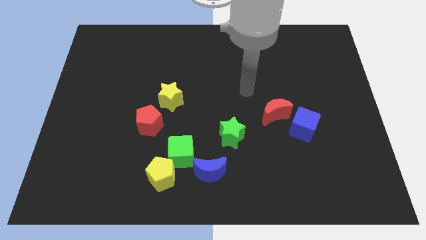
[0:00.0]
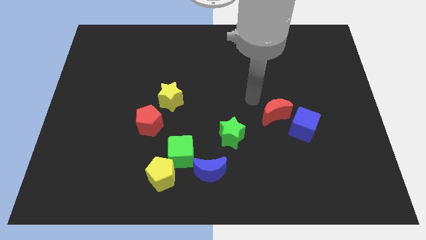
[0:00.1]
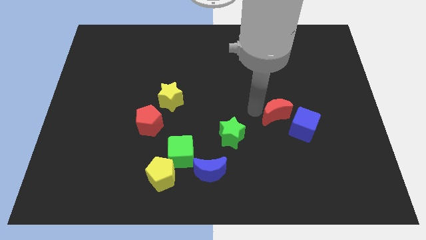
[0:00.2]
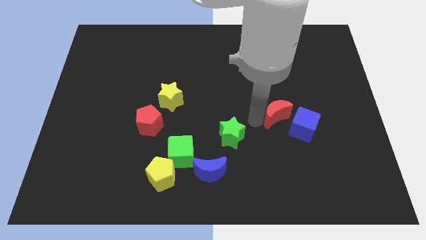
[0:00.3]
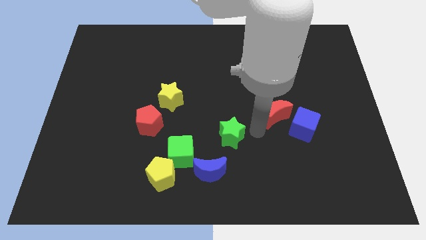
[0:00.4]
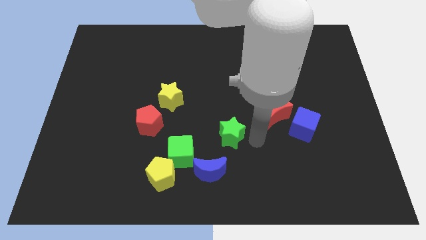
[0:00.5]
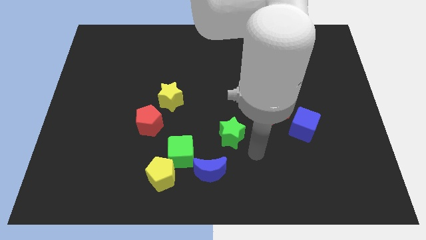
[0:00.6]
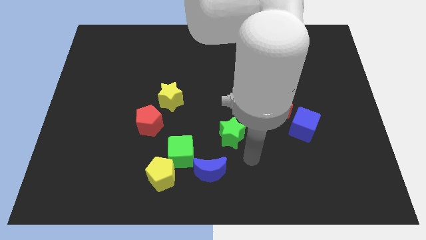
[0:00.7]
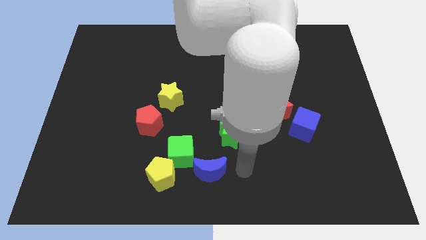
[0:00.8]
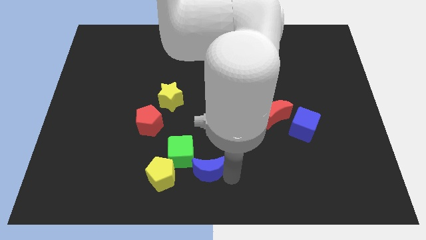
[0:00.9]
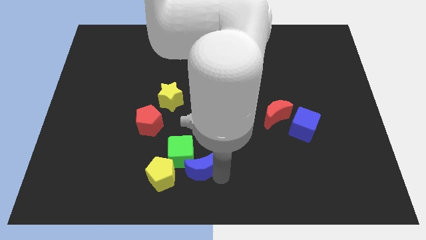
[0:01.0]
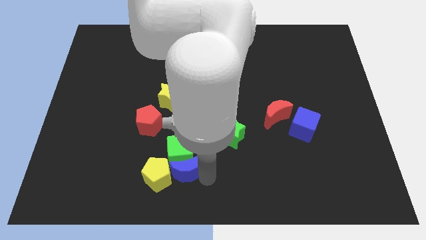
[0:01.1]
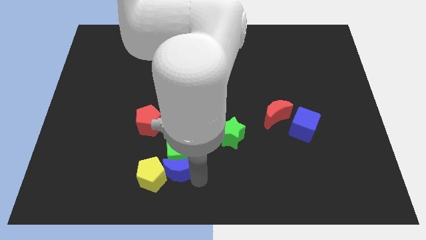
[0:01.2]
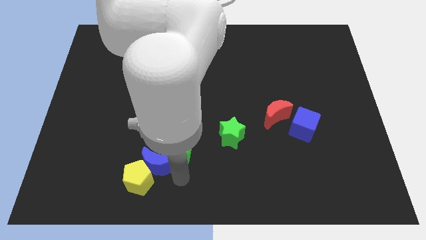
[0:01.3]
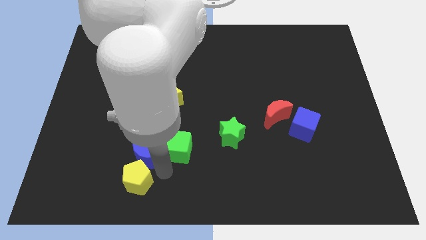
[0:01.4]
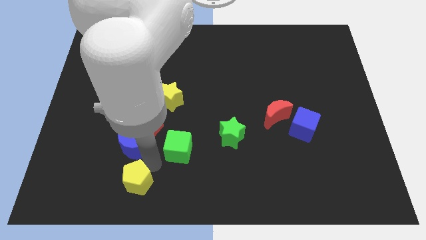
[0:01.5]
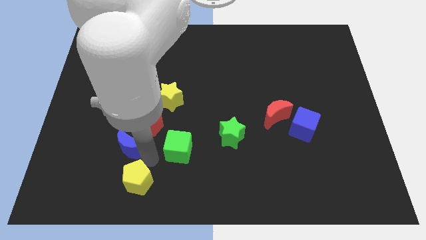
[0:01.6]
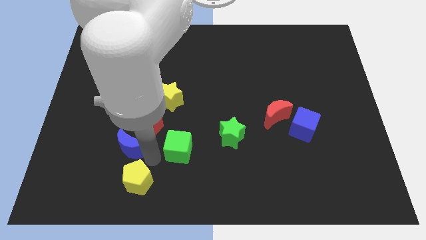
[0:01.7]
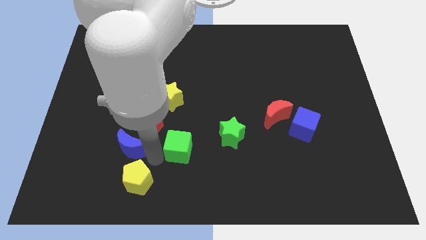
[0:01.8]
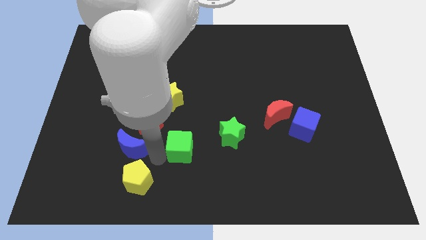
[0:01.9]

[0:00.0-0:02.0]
pull the green cube apart from the yellow pentagon and blue moon

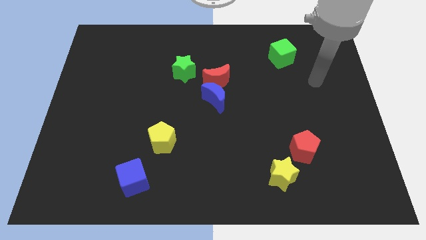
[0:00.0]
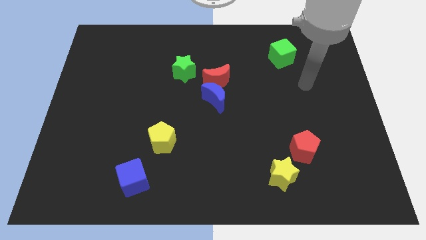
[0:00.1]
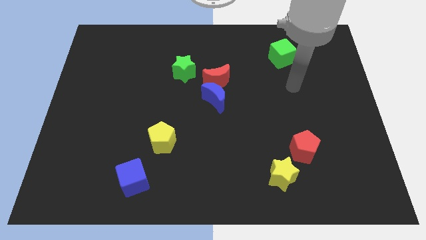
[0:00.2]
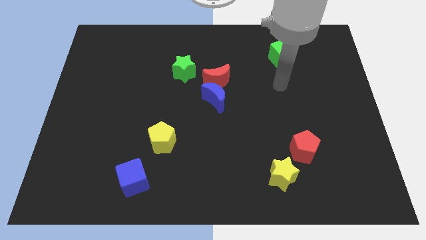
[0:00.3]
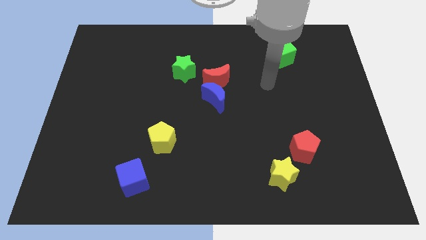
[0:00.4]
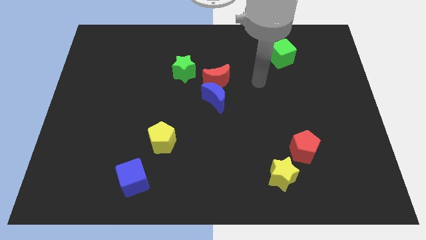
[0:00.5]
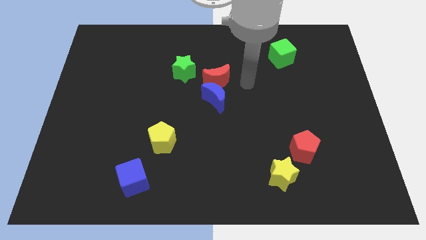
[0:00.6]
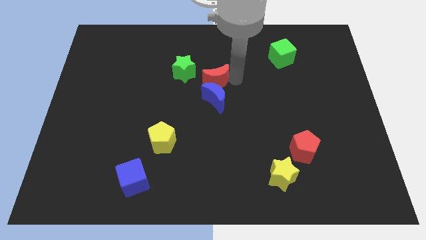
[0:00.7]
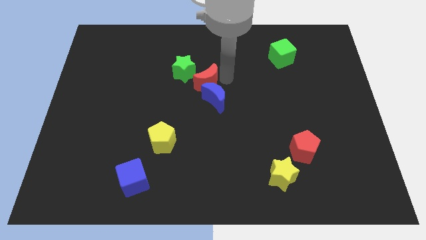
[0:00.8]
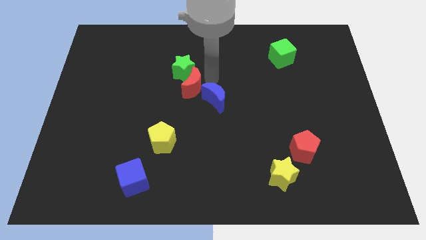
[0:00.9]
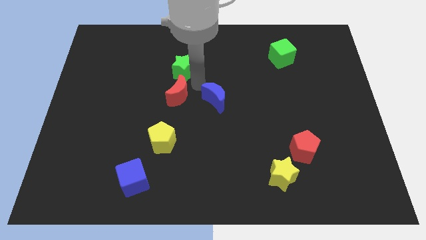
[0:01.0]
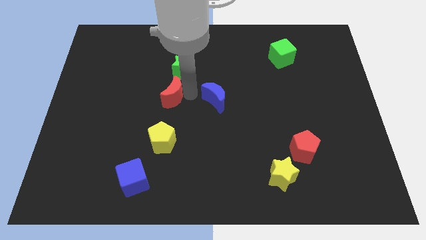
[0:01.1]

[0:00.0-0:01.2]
move the blue moon away from the red moon

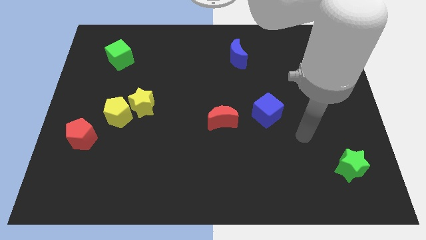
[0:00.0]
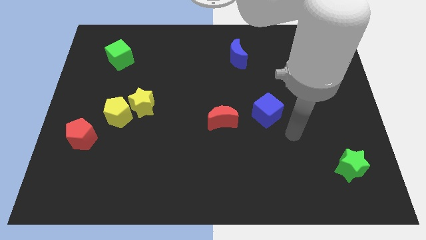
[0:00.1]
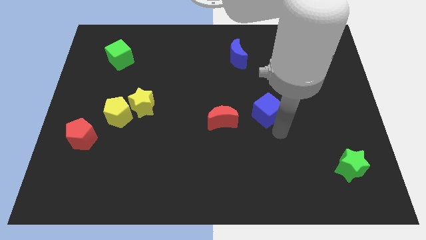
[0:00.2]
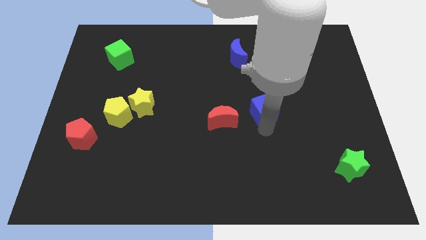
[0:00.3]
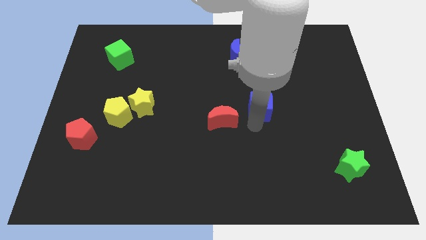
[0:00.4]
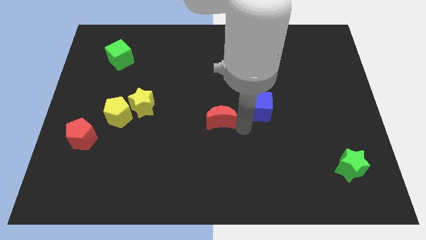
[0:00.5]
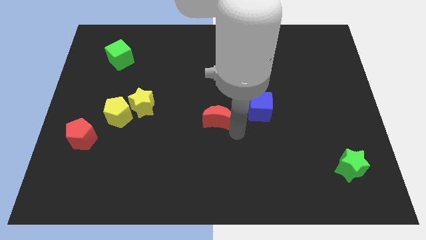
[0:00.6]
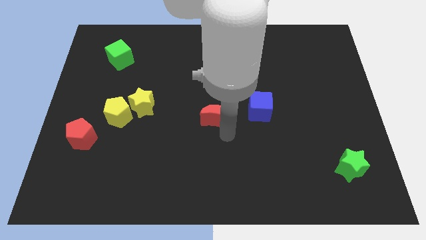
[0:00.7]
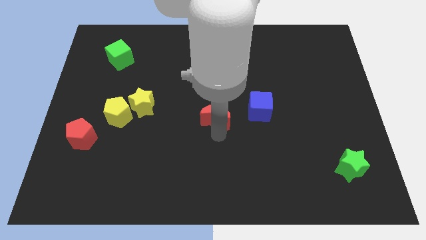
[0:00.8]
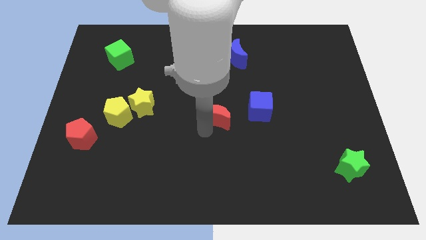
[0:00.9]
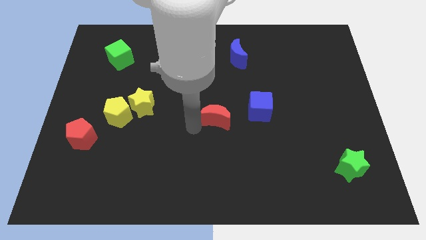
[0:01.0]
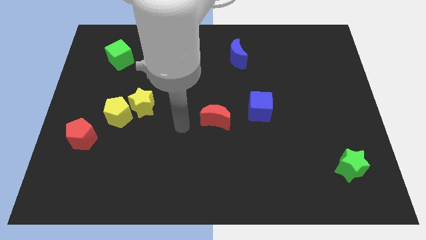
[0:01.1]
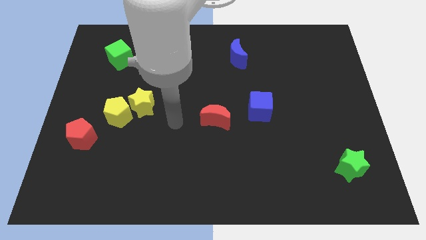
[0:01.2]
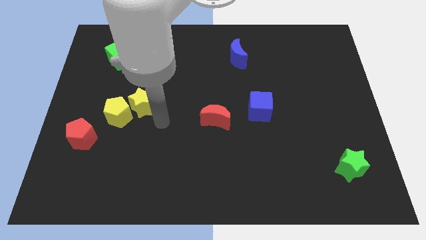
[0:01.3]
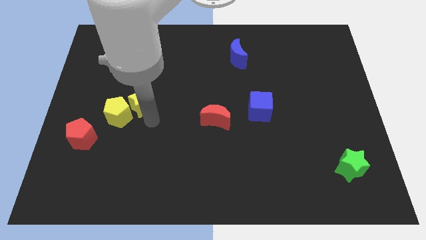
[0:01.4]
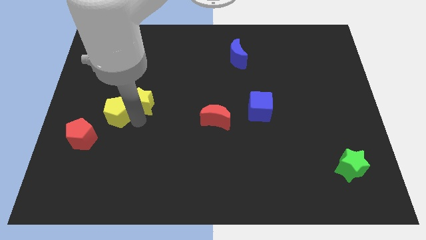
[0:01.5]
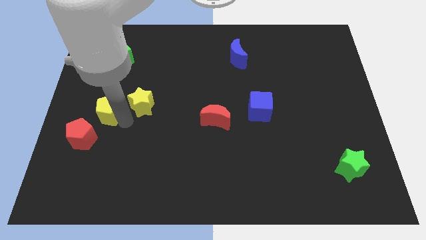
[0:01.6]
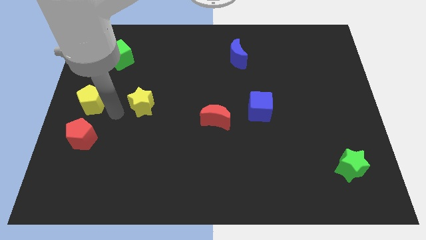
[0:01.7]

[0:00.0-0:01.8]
separate the yellow star from the yellow pentagon

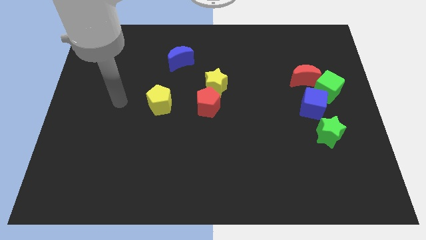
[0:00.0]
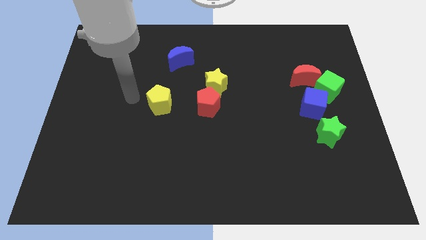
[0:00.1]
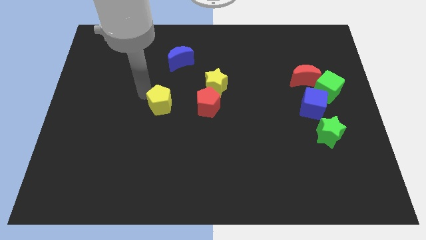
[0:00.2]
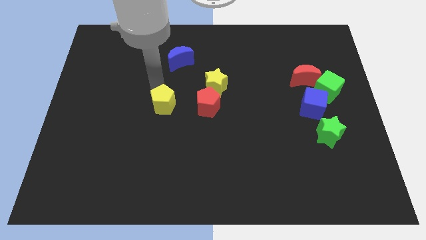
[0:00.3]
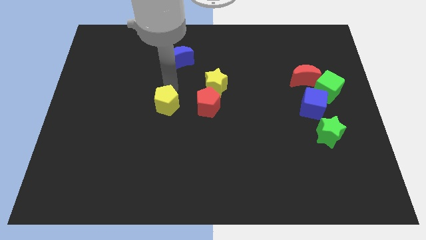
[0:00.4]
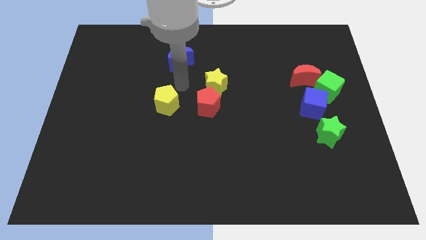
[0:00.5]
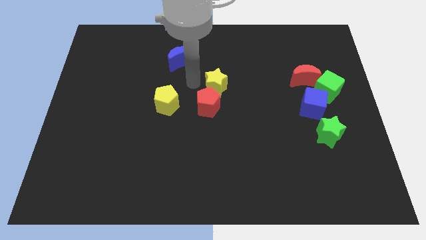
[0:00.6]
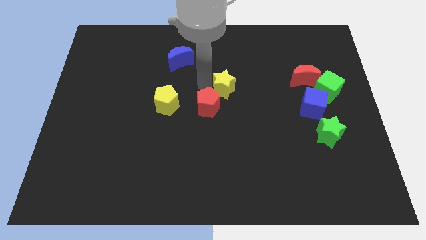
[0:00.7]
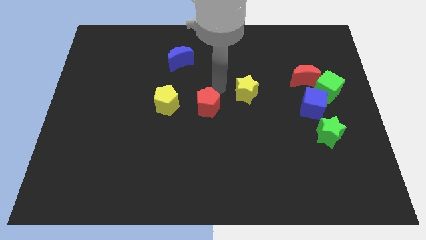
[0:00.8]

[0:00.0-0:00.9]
move the red pentagon away from the yellow star

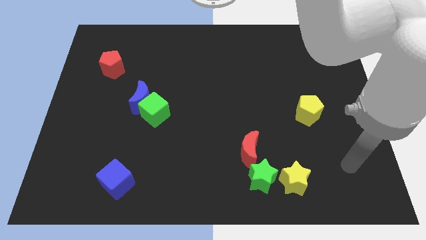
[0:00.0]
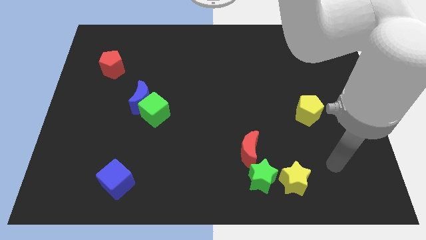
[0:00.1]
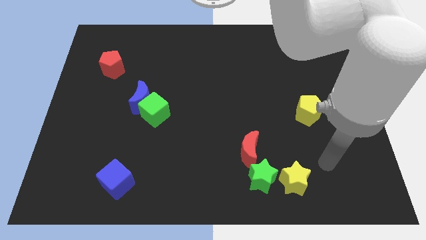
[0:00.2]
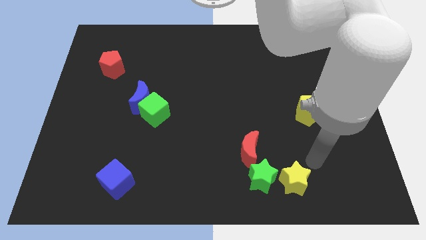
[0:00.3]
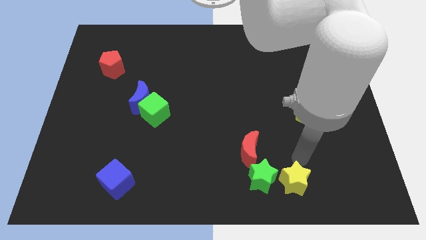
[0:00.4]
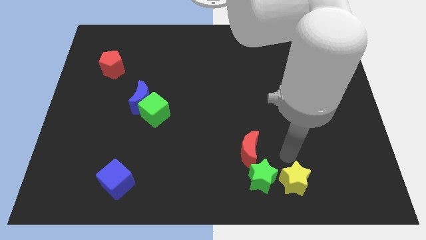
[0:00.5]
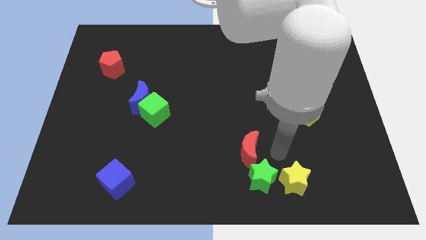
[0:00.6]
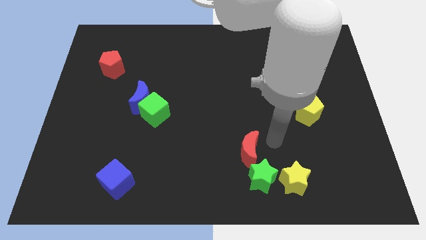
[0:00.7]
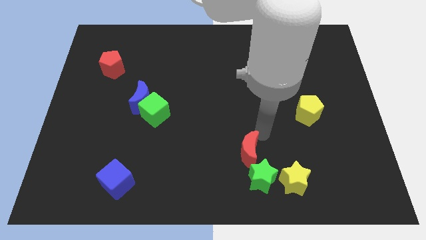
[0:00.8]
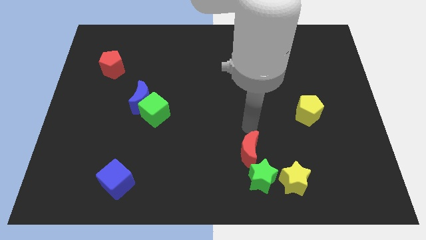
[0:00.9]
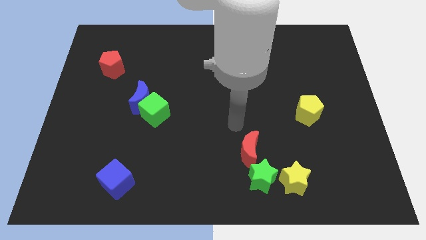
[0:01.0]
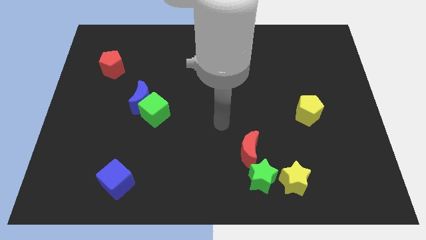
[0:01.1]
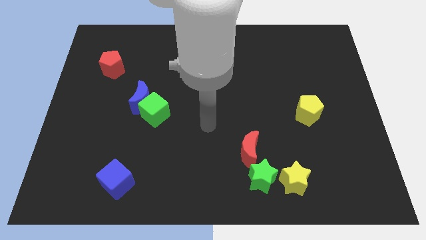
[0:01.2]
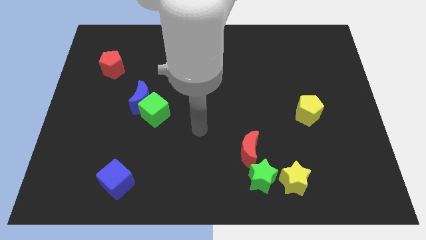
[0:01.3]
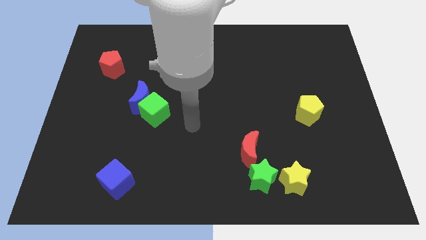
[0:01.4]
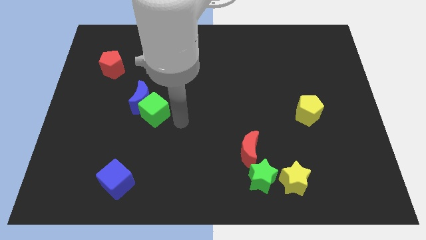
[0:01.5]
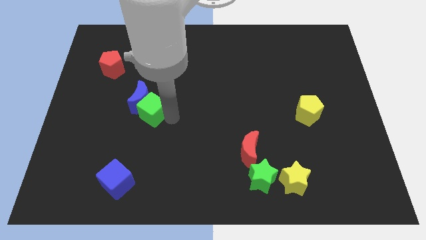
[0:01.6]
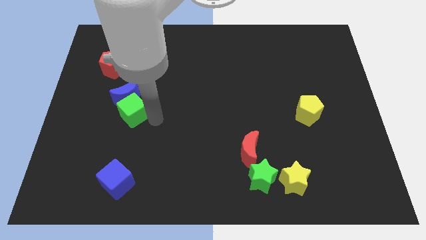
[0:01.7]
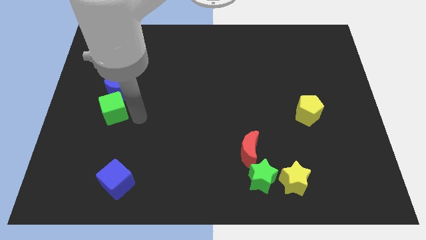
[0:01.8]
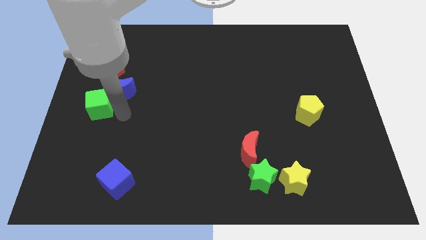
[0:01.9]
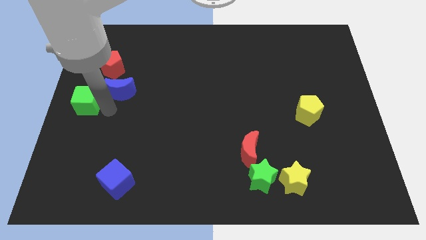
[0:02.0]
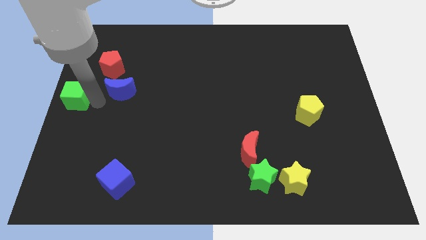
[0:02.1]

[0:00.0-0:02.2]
separate the blue moon from the green cube

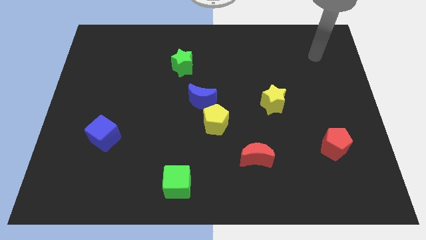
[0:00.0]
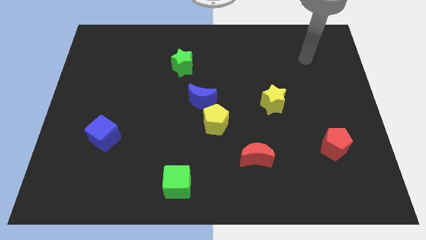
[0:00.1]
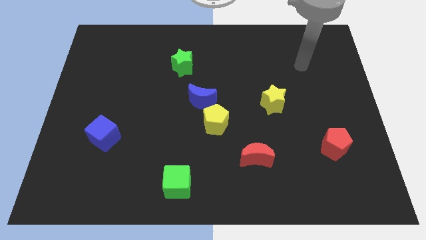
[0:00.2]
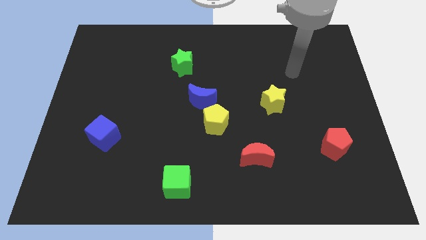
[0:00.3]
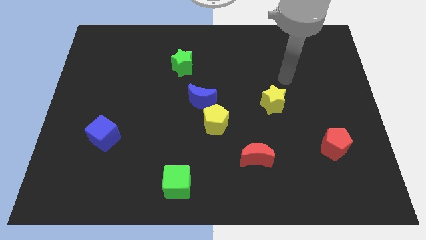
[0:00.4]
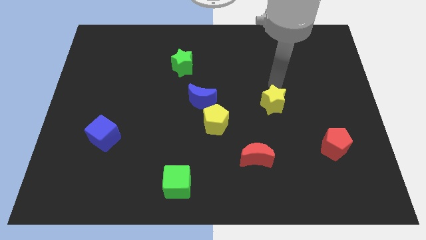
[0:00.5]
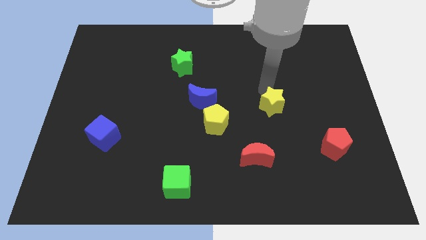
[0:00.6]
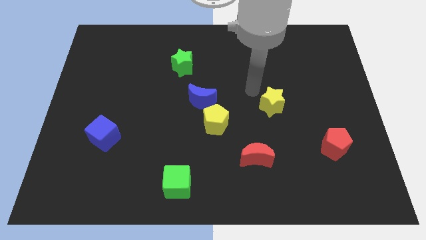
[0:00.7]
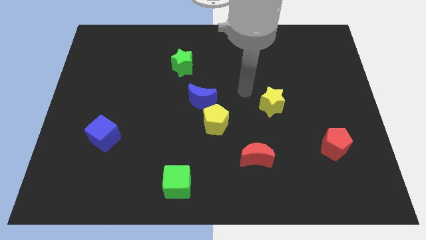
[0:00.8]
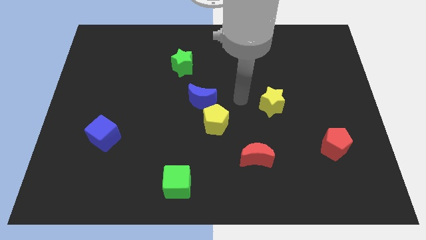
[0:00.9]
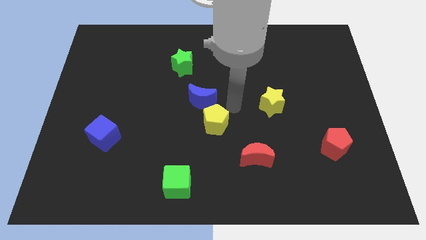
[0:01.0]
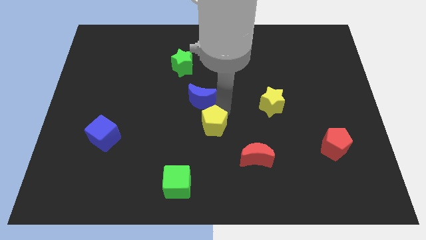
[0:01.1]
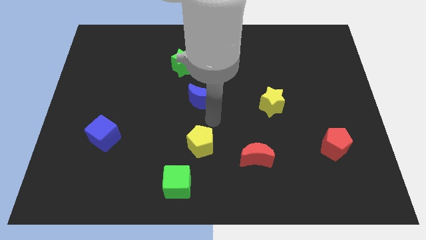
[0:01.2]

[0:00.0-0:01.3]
move the blue moon away from the yellow pentagon
